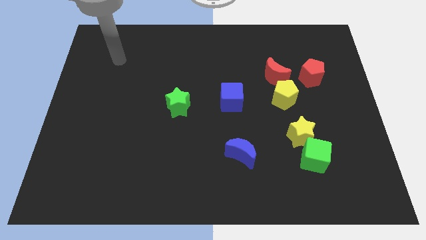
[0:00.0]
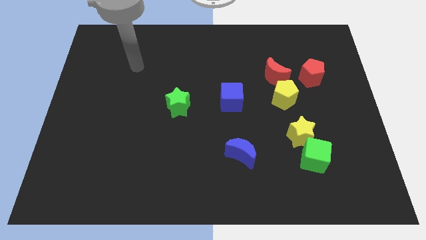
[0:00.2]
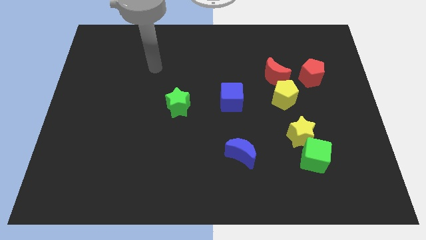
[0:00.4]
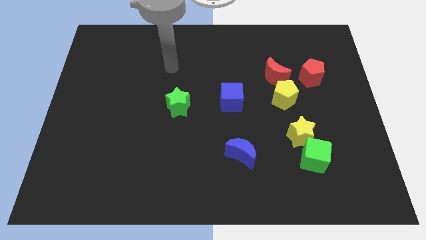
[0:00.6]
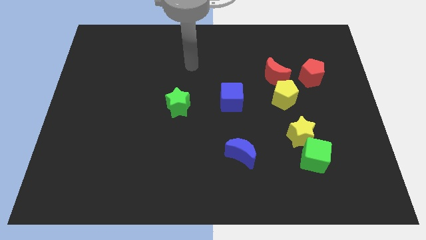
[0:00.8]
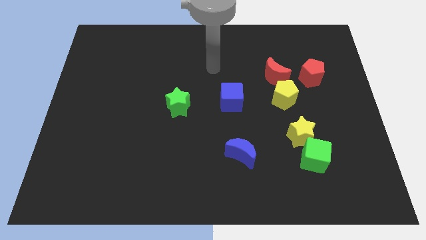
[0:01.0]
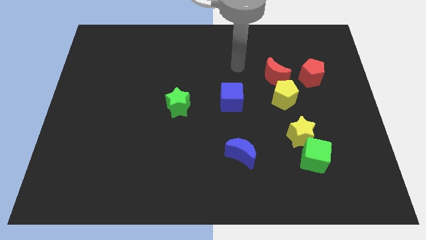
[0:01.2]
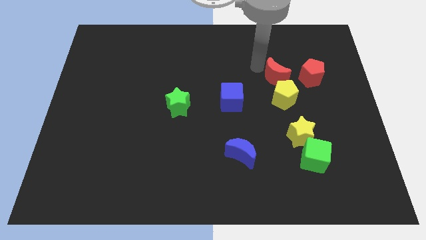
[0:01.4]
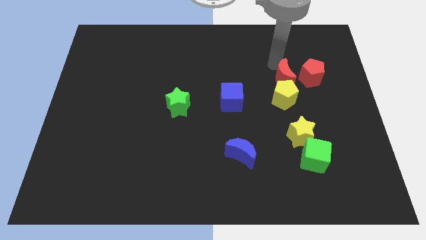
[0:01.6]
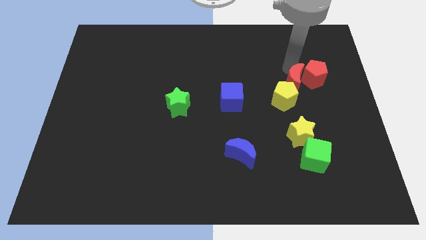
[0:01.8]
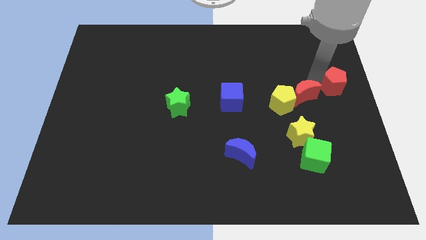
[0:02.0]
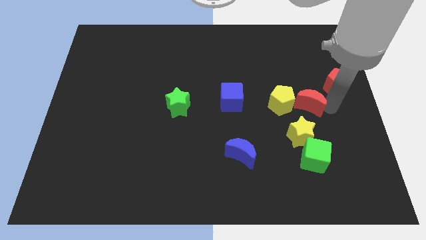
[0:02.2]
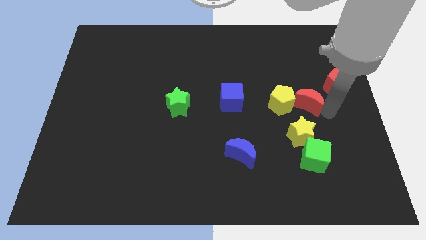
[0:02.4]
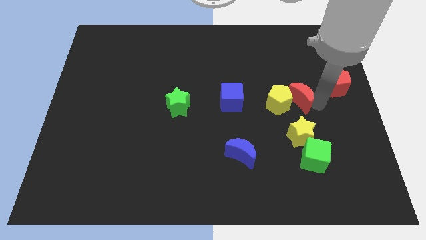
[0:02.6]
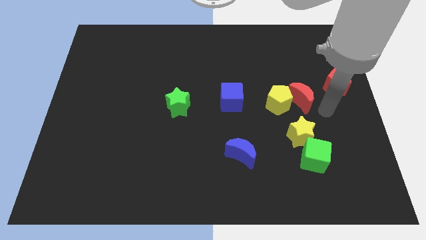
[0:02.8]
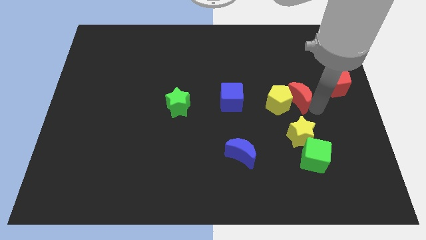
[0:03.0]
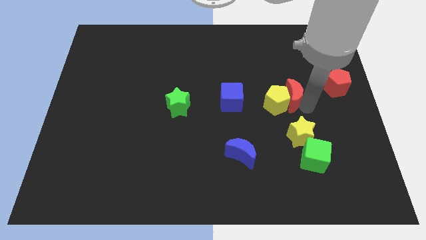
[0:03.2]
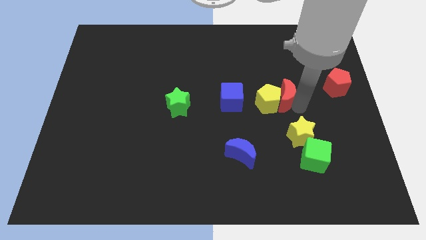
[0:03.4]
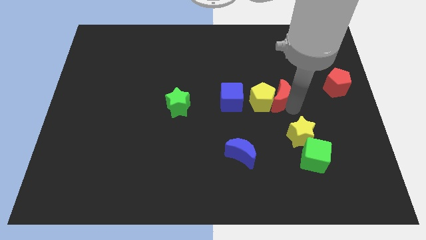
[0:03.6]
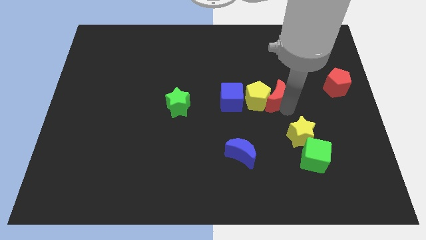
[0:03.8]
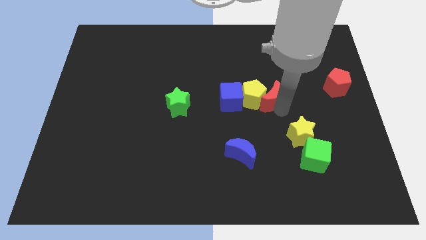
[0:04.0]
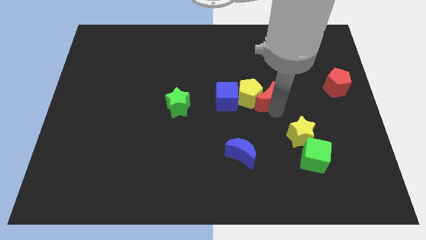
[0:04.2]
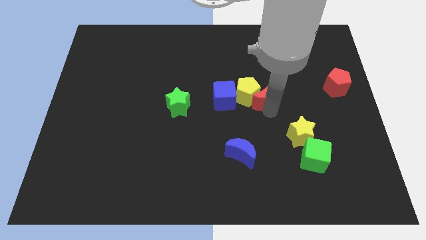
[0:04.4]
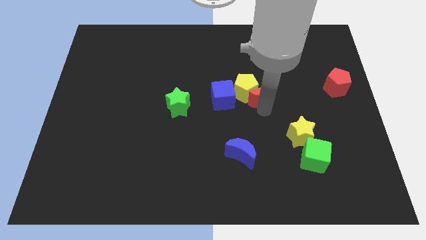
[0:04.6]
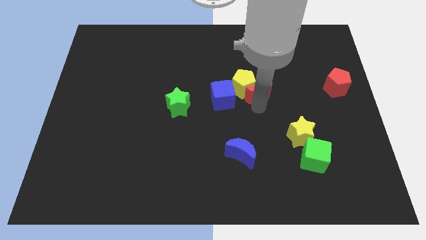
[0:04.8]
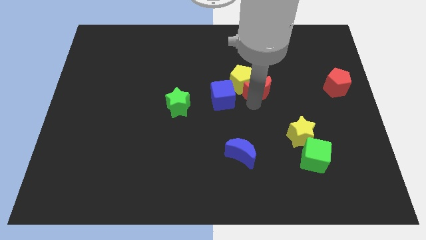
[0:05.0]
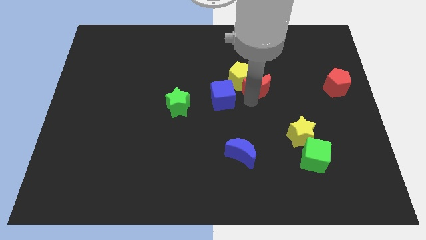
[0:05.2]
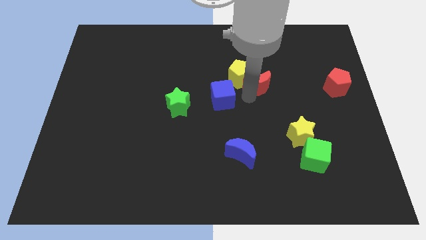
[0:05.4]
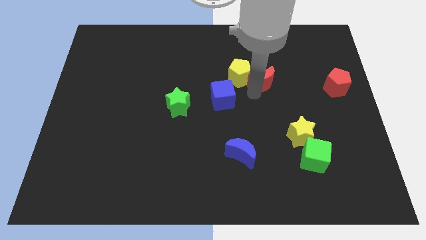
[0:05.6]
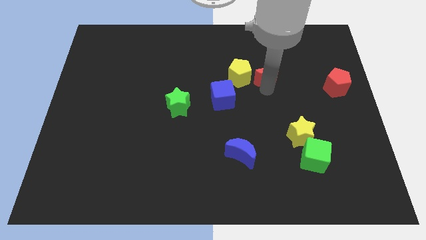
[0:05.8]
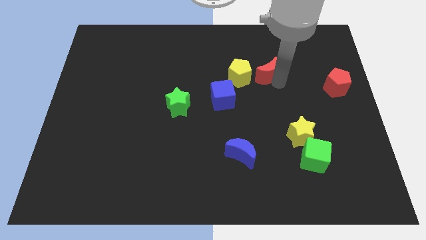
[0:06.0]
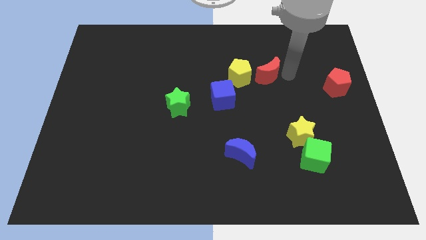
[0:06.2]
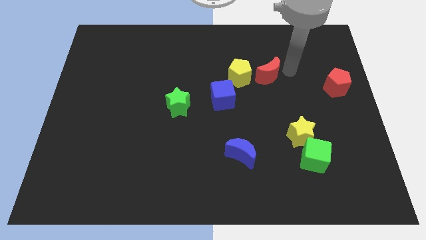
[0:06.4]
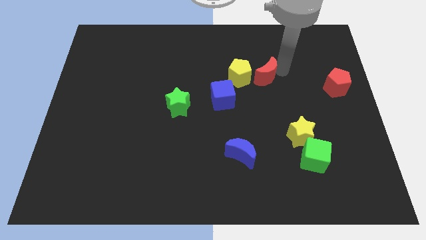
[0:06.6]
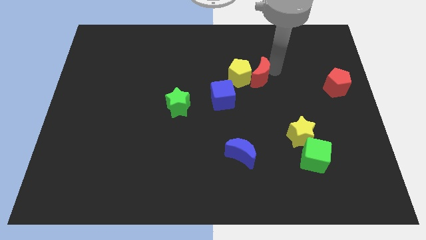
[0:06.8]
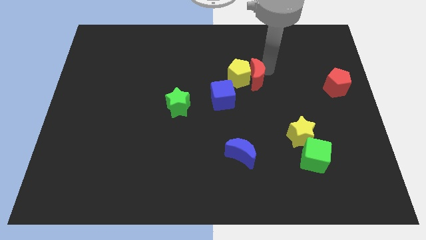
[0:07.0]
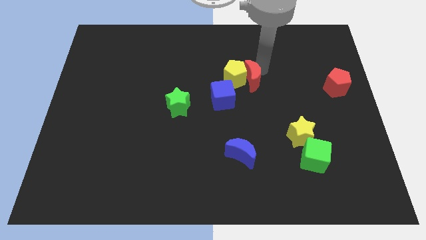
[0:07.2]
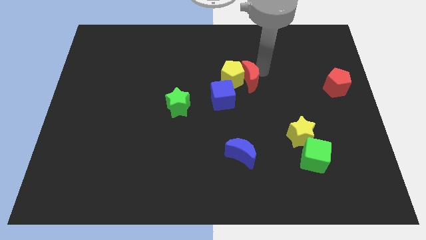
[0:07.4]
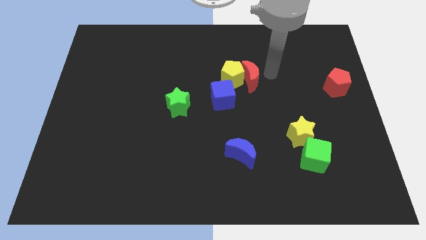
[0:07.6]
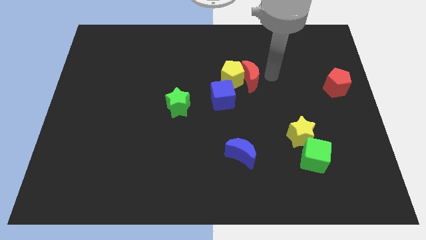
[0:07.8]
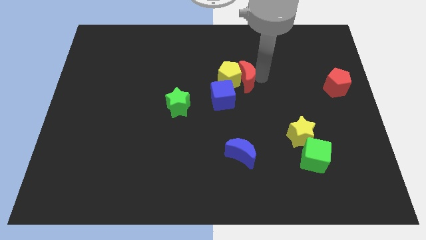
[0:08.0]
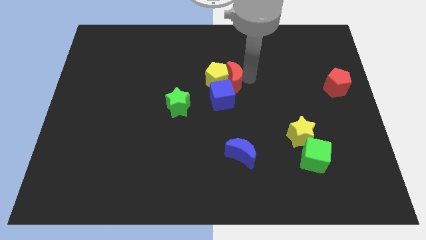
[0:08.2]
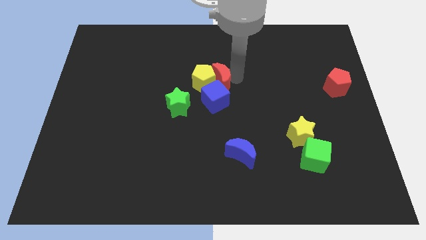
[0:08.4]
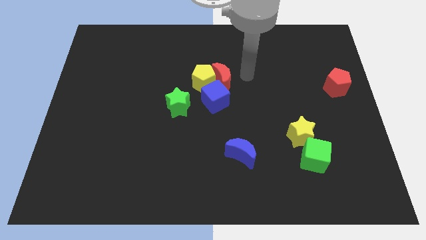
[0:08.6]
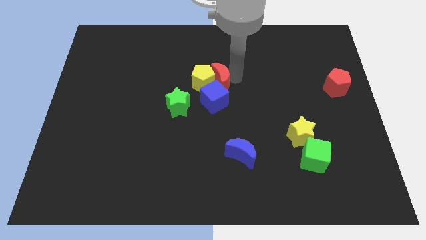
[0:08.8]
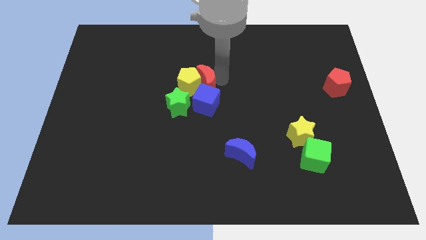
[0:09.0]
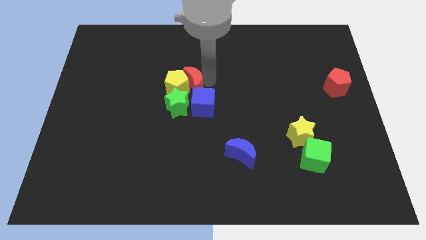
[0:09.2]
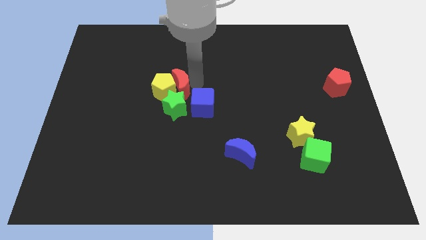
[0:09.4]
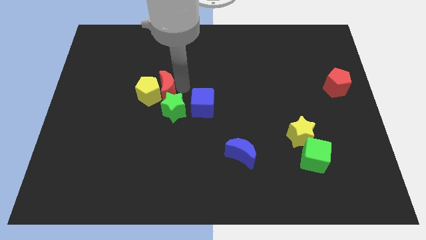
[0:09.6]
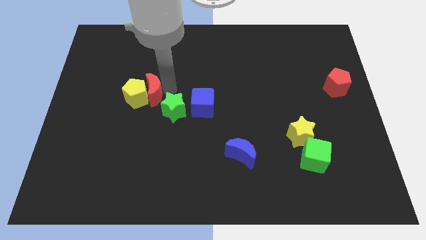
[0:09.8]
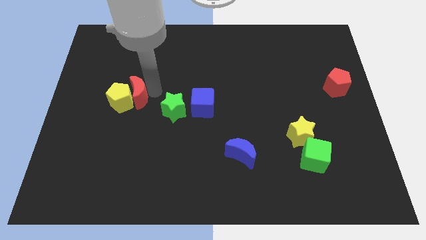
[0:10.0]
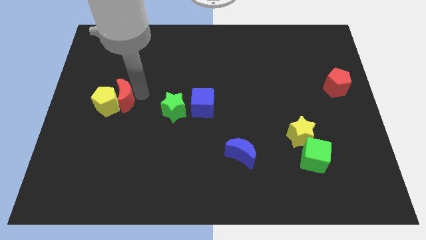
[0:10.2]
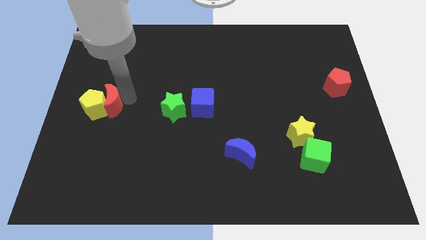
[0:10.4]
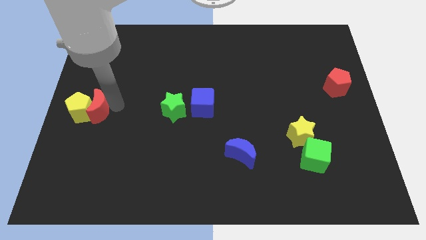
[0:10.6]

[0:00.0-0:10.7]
put the red moon to the left side of the board
